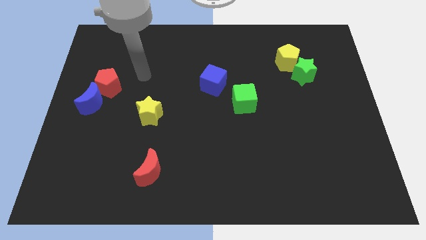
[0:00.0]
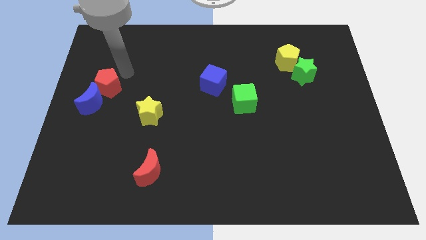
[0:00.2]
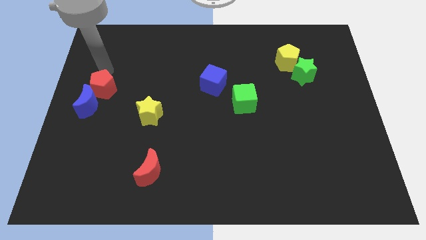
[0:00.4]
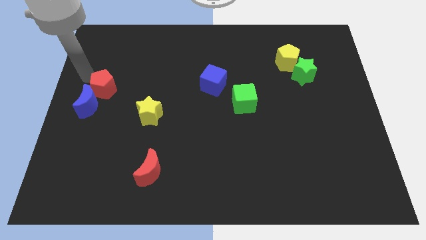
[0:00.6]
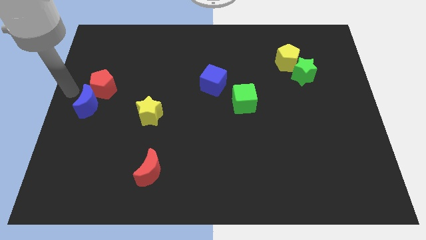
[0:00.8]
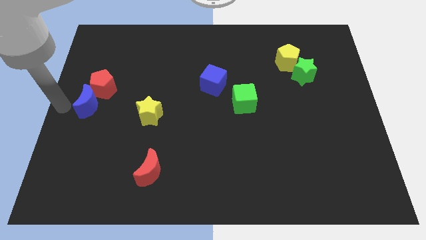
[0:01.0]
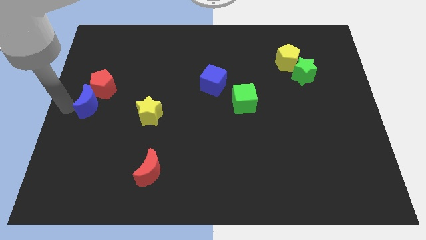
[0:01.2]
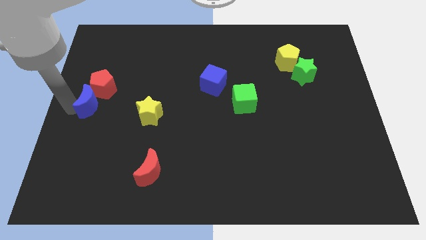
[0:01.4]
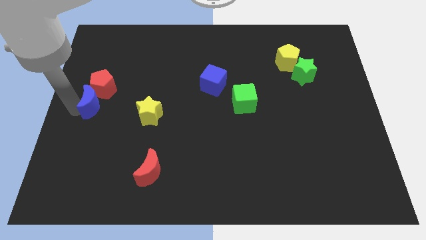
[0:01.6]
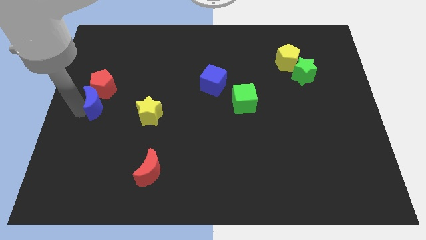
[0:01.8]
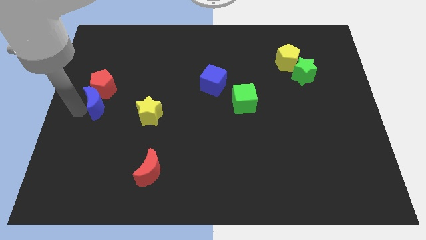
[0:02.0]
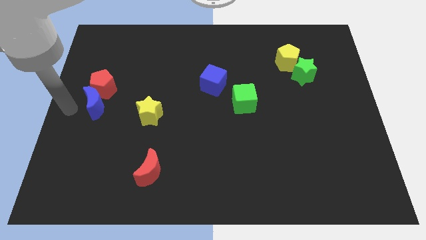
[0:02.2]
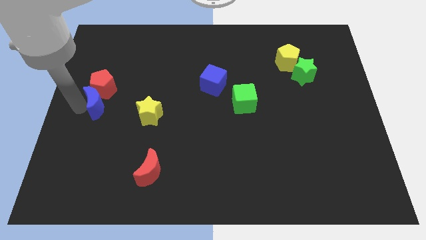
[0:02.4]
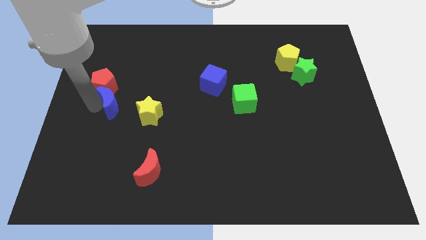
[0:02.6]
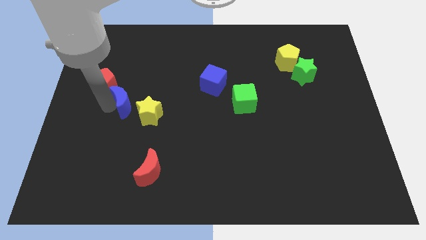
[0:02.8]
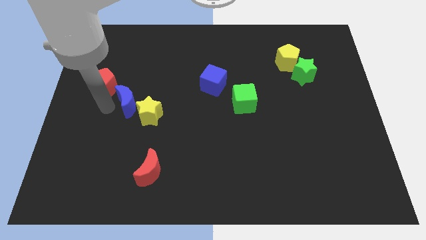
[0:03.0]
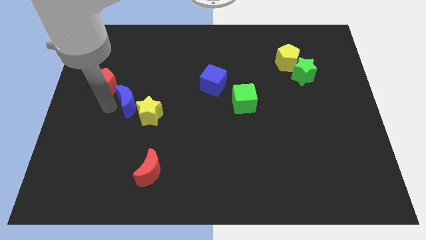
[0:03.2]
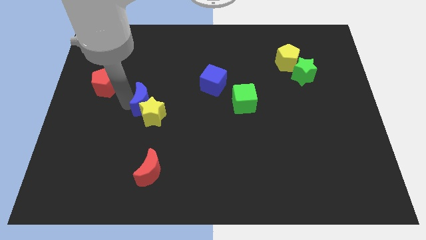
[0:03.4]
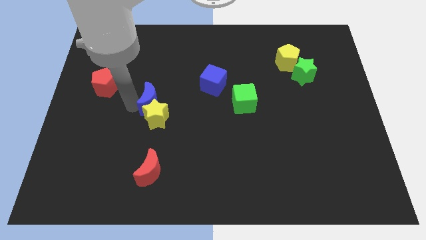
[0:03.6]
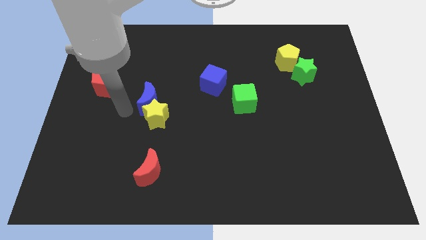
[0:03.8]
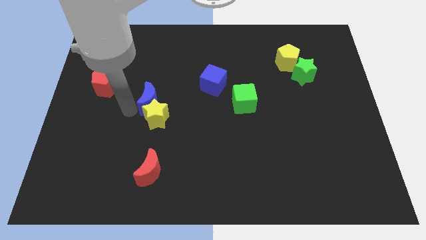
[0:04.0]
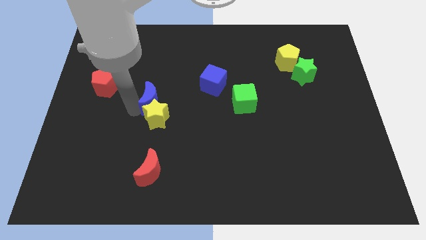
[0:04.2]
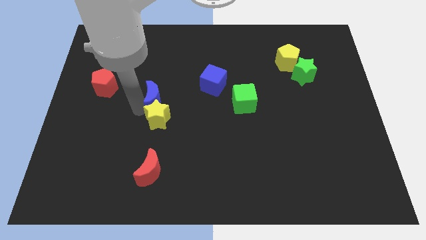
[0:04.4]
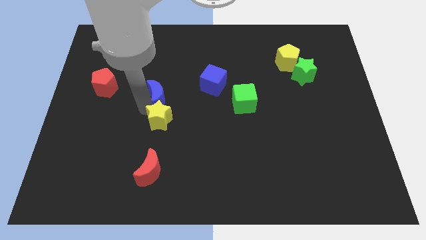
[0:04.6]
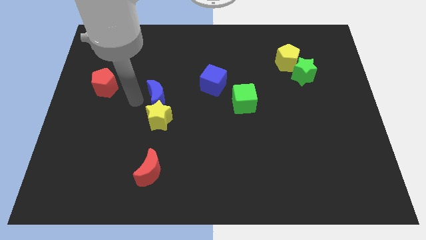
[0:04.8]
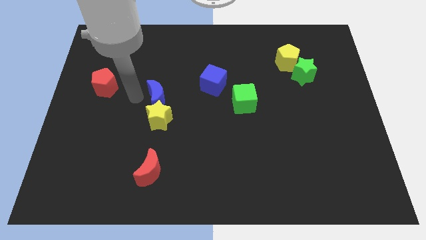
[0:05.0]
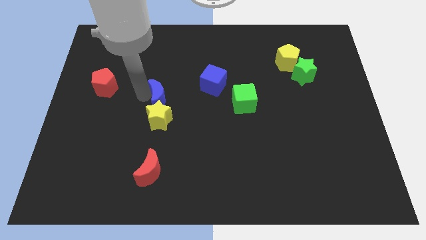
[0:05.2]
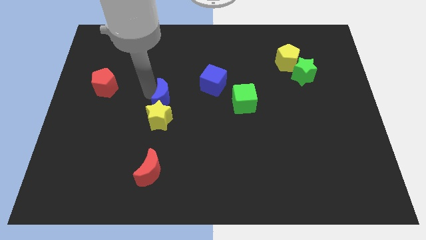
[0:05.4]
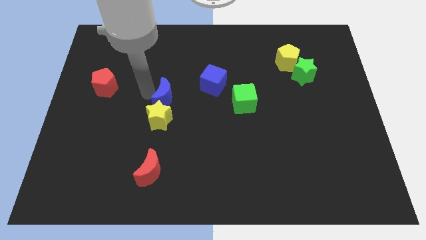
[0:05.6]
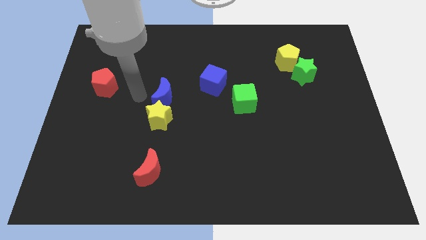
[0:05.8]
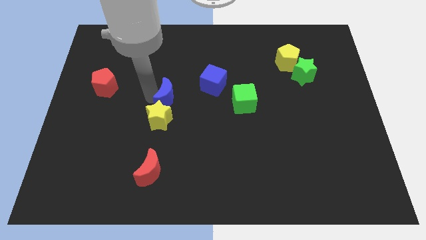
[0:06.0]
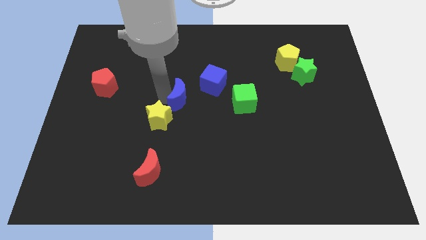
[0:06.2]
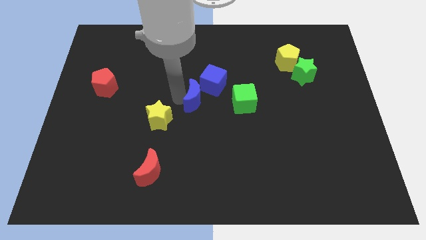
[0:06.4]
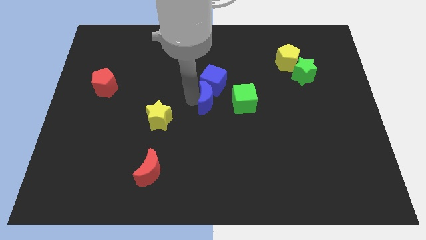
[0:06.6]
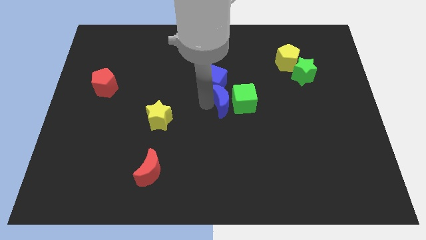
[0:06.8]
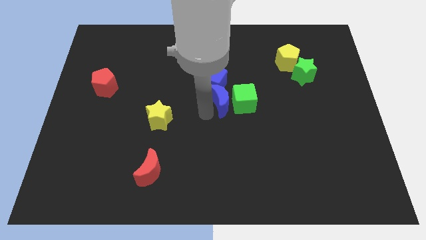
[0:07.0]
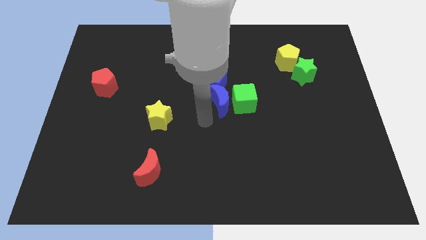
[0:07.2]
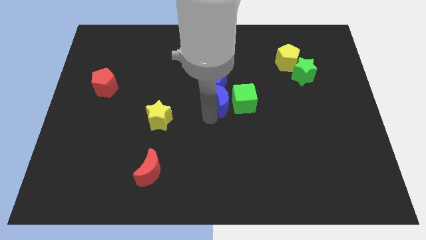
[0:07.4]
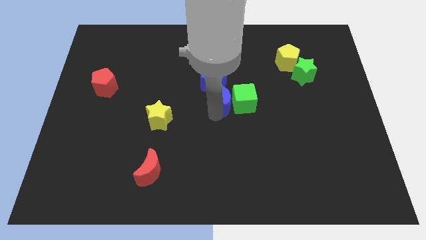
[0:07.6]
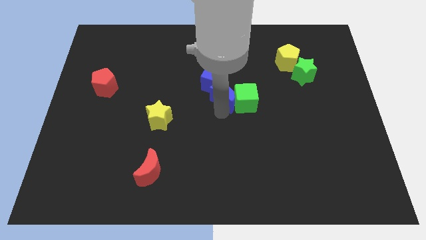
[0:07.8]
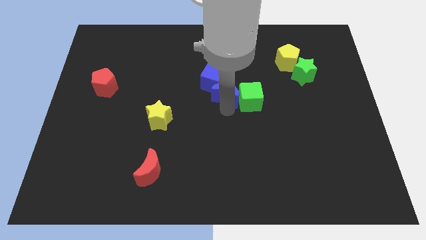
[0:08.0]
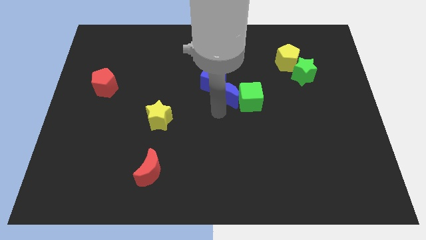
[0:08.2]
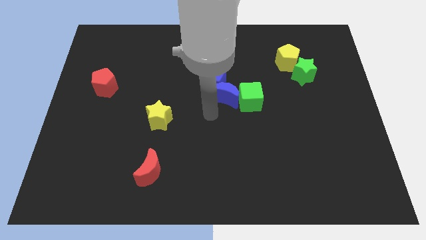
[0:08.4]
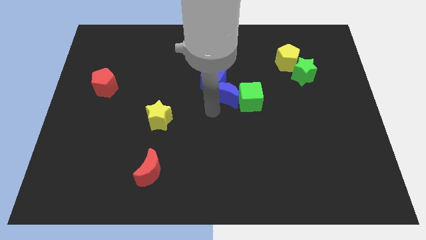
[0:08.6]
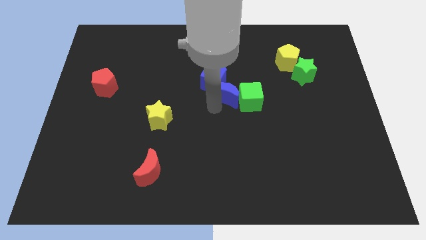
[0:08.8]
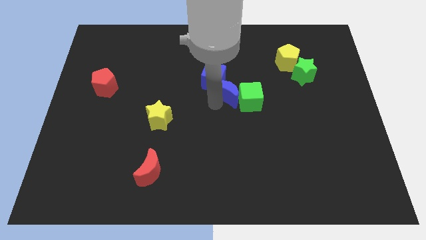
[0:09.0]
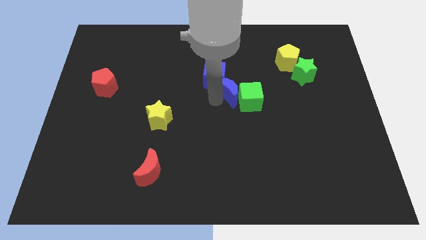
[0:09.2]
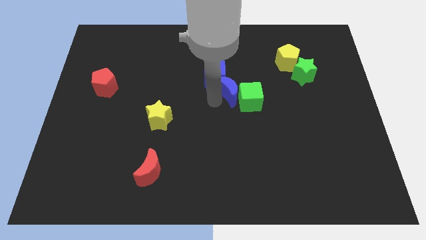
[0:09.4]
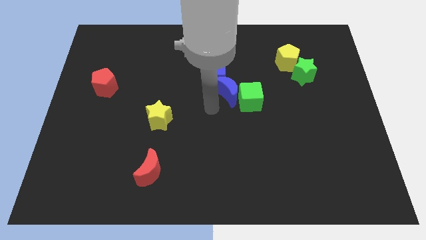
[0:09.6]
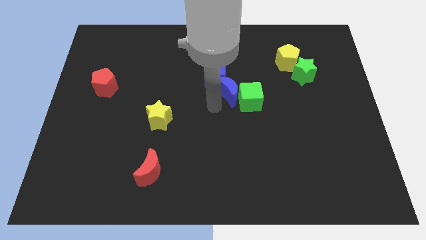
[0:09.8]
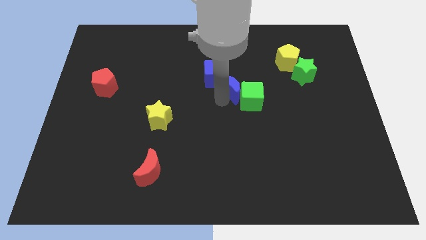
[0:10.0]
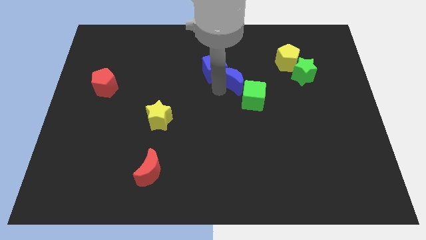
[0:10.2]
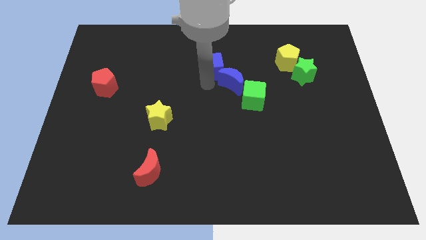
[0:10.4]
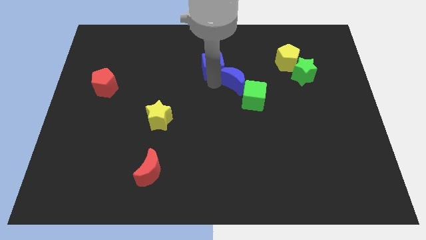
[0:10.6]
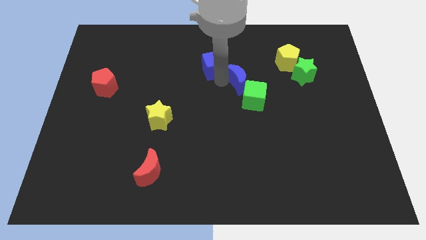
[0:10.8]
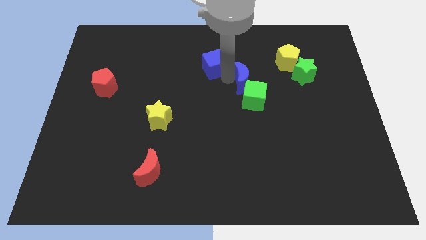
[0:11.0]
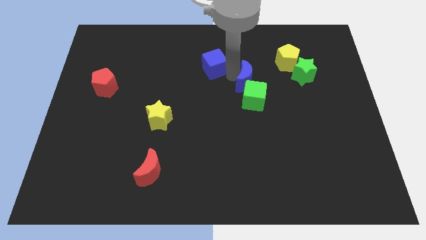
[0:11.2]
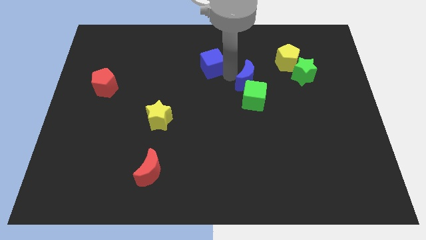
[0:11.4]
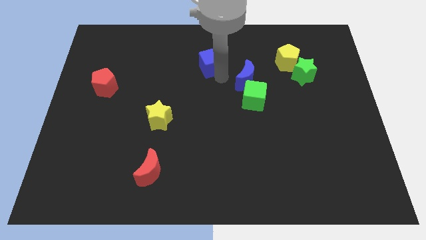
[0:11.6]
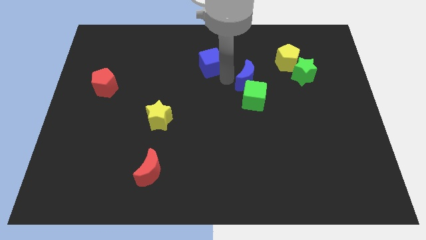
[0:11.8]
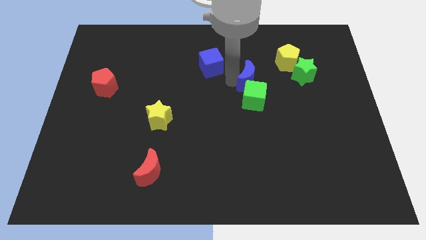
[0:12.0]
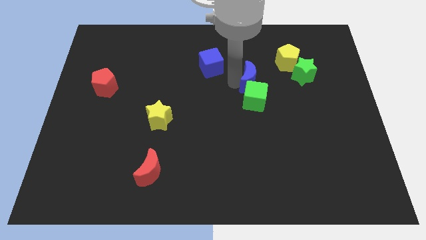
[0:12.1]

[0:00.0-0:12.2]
push the blue moon to the top right side of the green cube

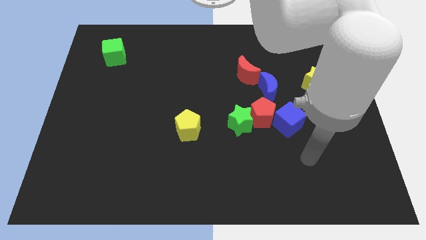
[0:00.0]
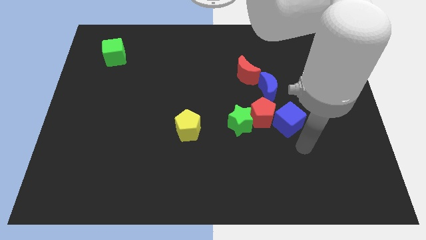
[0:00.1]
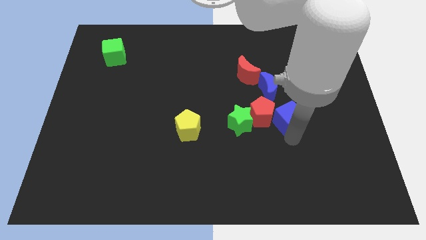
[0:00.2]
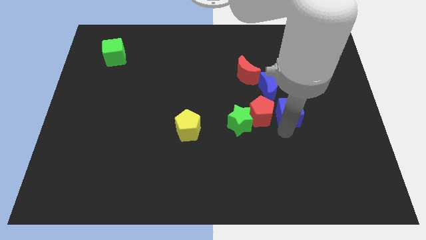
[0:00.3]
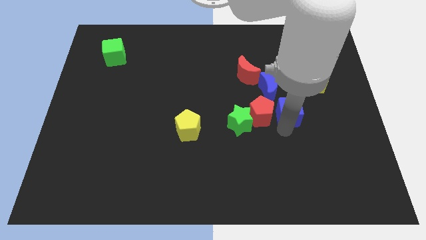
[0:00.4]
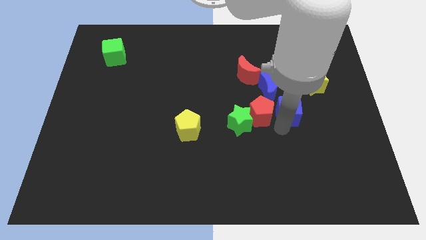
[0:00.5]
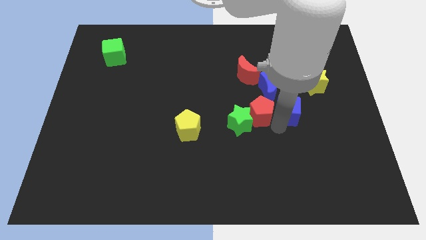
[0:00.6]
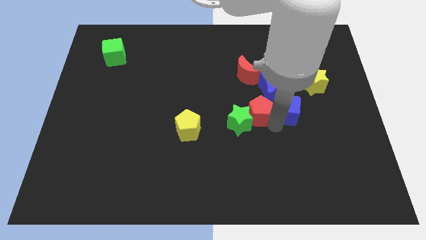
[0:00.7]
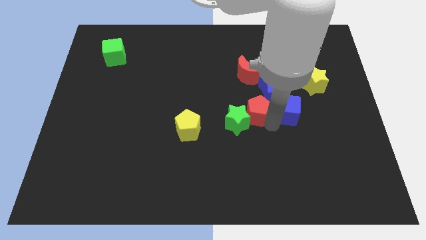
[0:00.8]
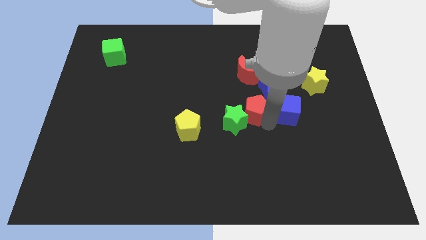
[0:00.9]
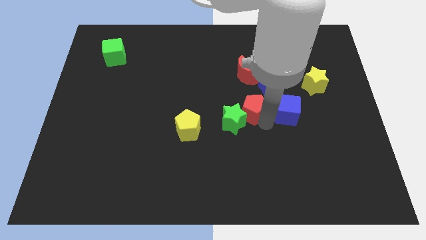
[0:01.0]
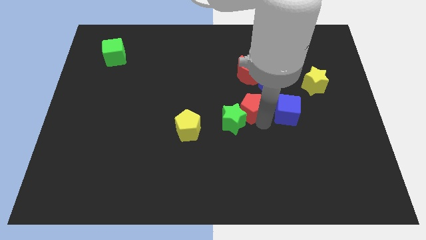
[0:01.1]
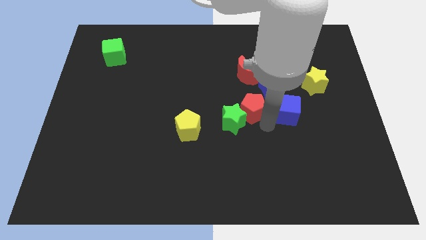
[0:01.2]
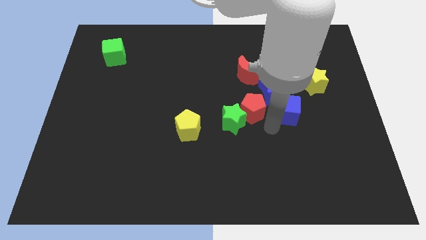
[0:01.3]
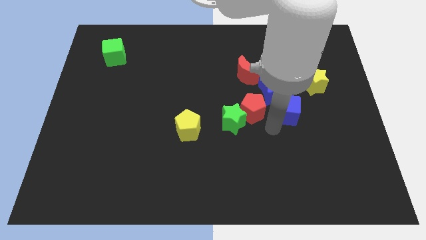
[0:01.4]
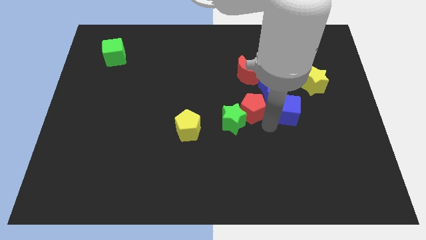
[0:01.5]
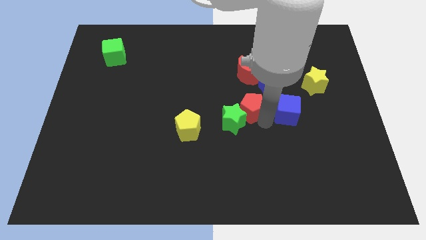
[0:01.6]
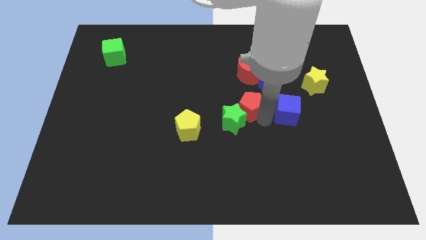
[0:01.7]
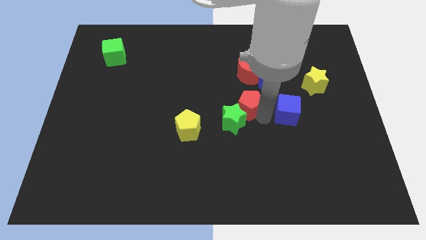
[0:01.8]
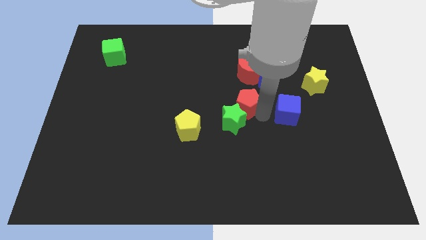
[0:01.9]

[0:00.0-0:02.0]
put the red pentagon left of the blue moon
